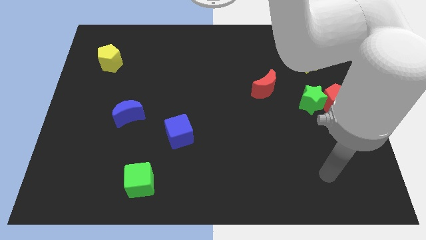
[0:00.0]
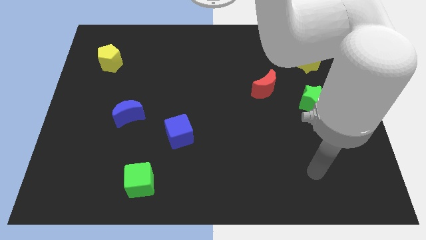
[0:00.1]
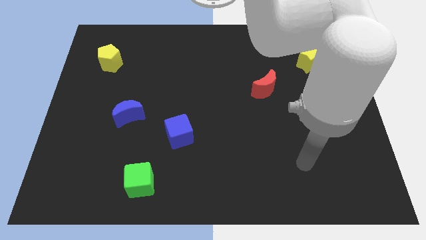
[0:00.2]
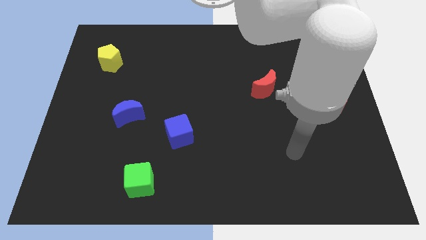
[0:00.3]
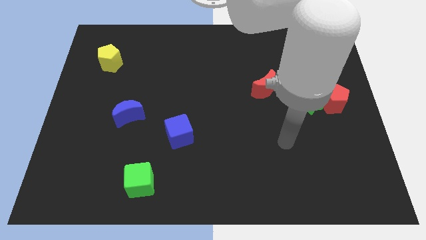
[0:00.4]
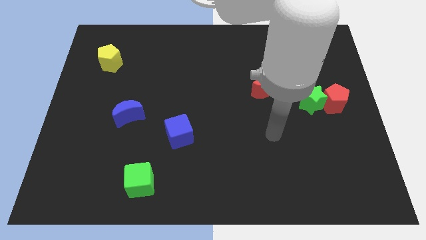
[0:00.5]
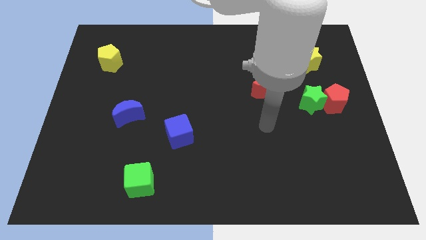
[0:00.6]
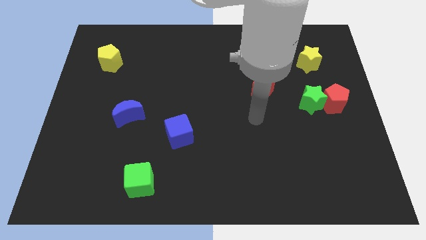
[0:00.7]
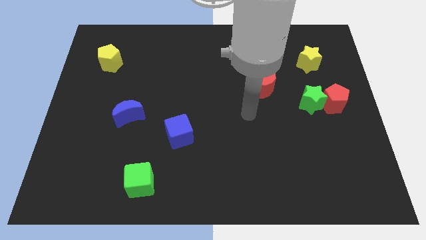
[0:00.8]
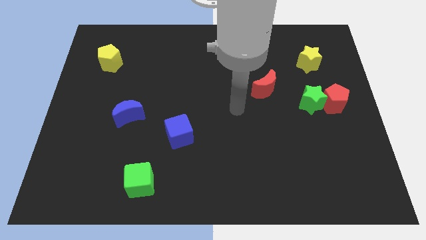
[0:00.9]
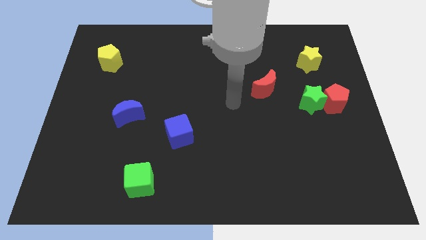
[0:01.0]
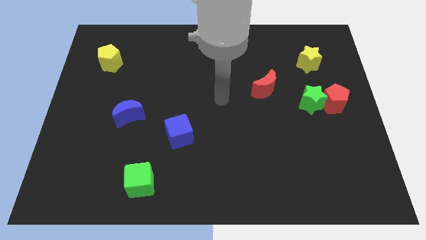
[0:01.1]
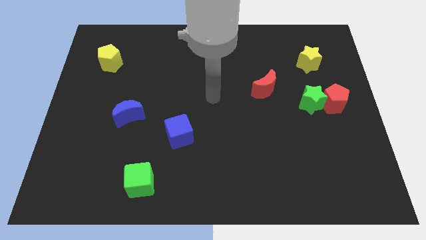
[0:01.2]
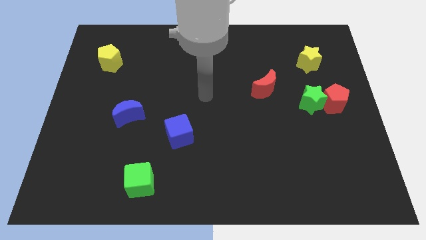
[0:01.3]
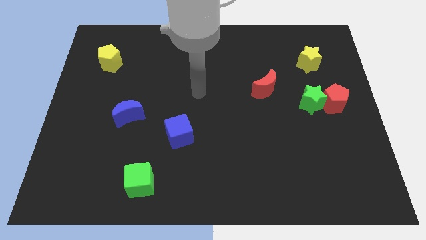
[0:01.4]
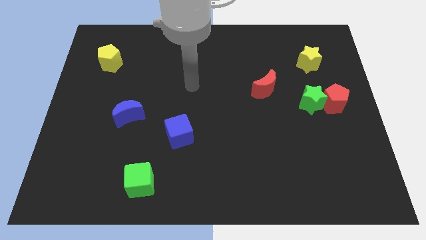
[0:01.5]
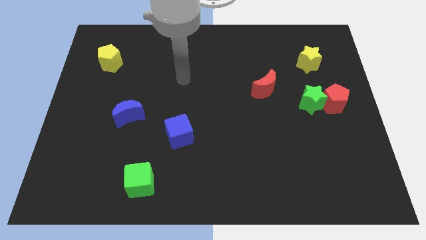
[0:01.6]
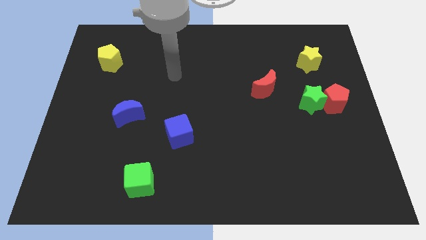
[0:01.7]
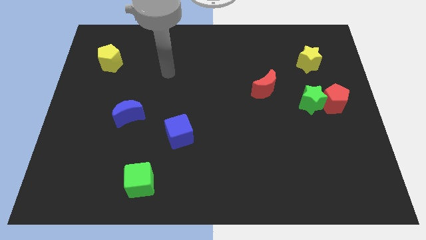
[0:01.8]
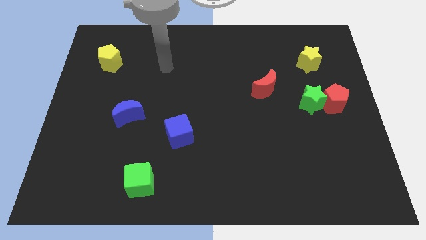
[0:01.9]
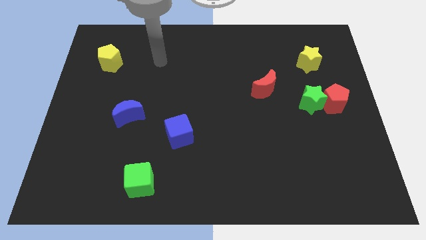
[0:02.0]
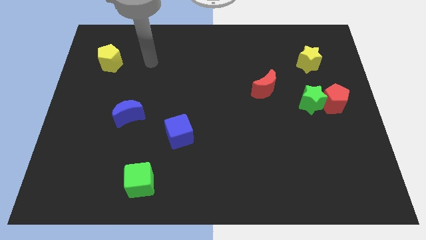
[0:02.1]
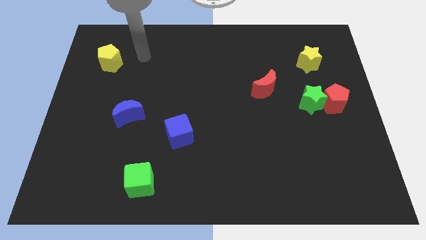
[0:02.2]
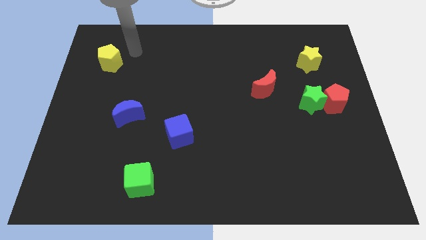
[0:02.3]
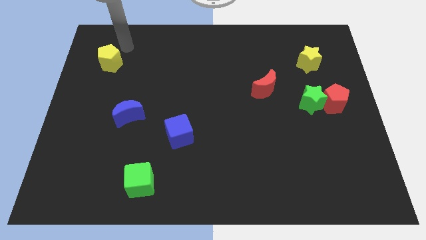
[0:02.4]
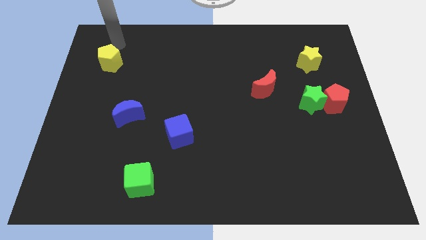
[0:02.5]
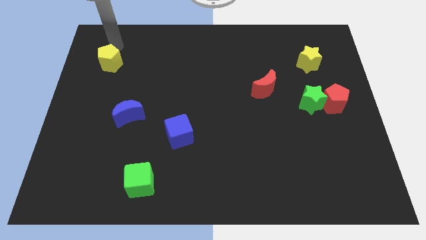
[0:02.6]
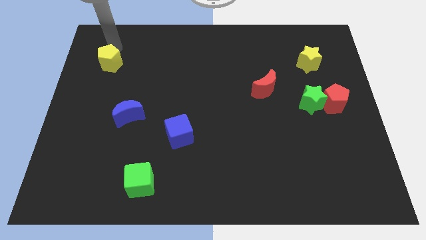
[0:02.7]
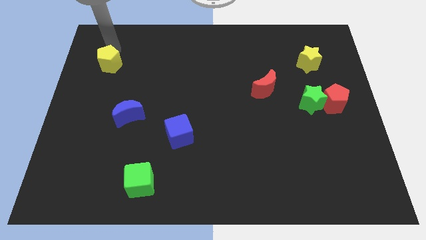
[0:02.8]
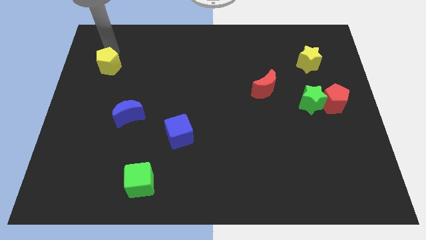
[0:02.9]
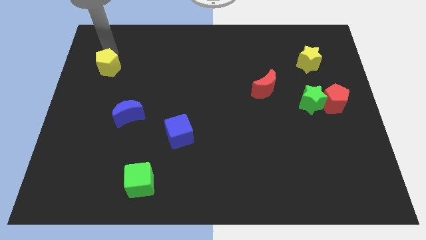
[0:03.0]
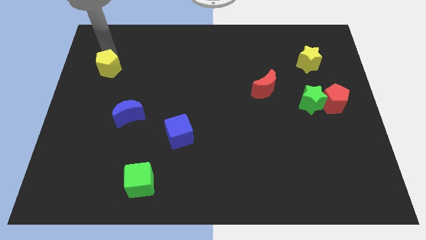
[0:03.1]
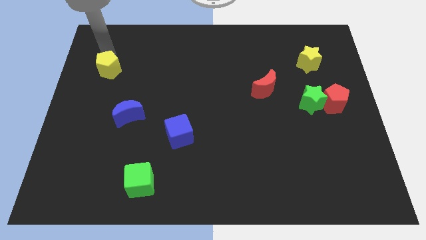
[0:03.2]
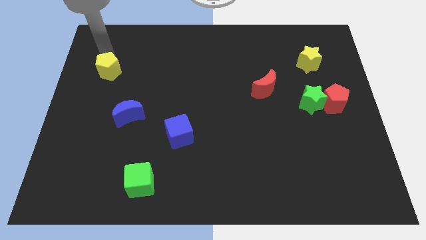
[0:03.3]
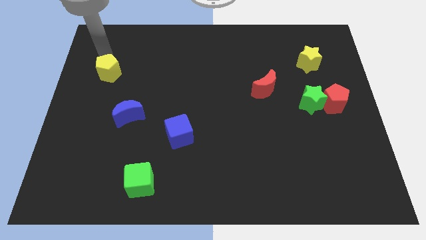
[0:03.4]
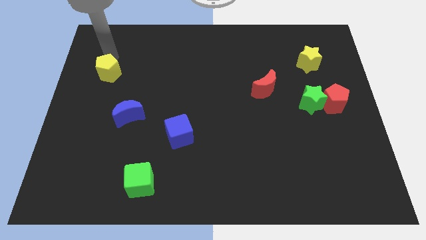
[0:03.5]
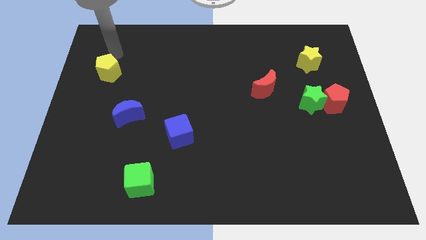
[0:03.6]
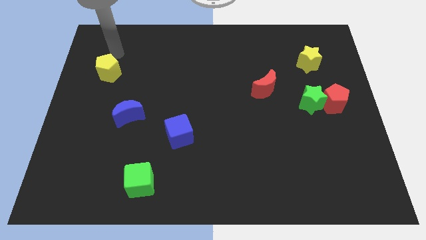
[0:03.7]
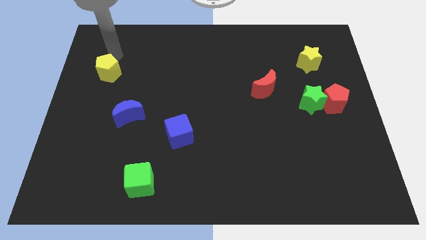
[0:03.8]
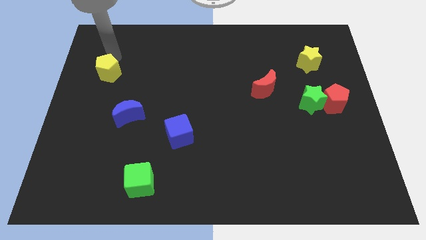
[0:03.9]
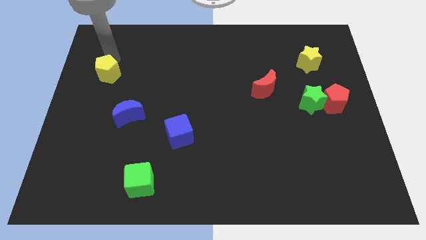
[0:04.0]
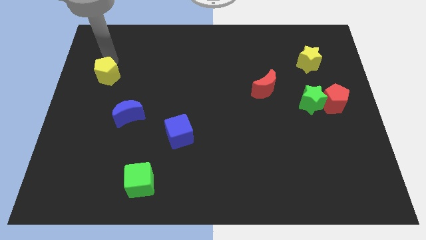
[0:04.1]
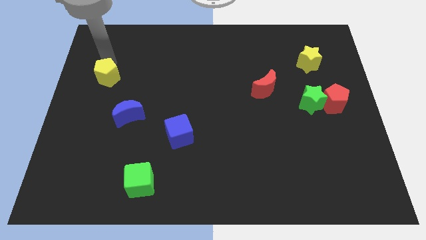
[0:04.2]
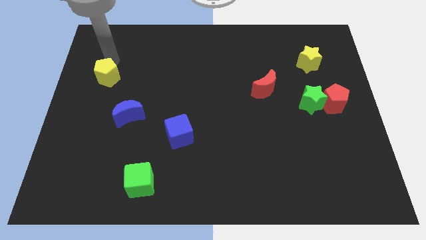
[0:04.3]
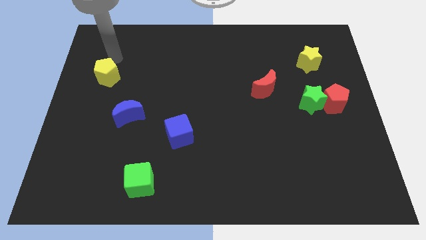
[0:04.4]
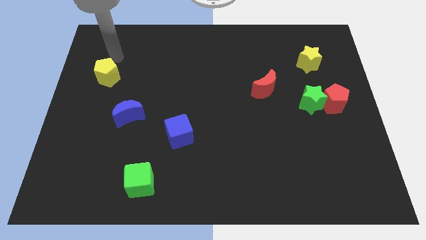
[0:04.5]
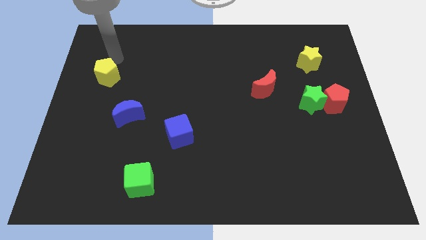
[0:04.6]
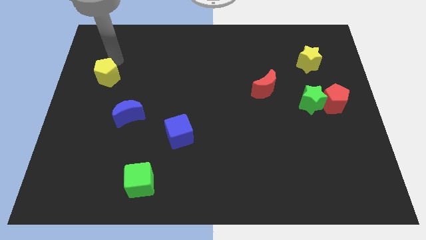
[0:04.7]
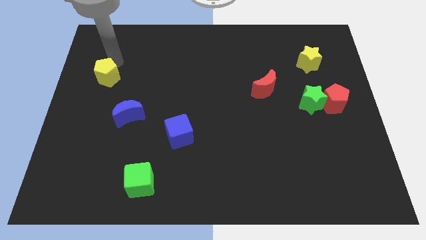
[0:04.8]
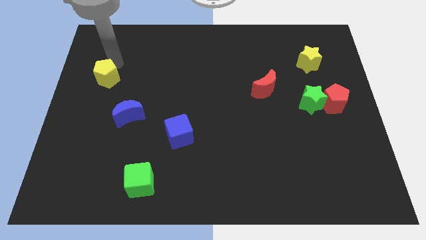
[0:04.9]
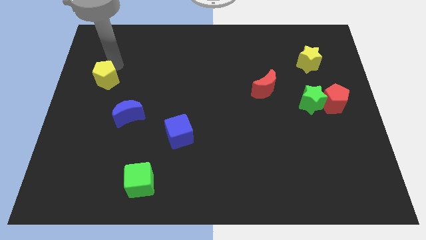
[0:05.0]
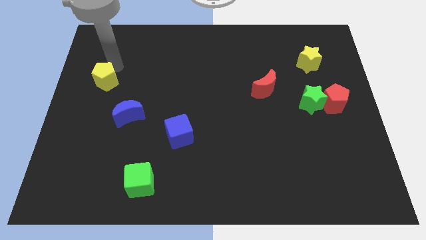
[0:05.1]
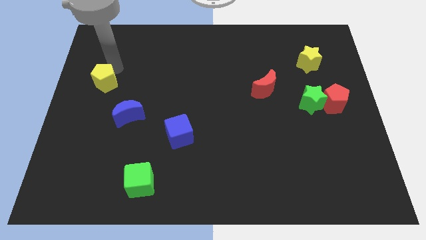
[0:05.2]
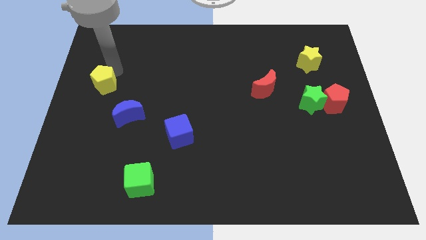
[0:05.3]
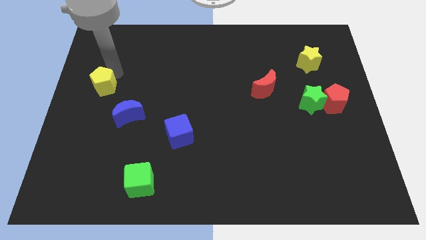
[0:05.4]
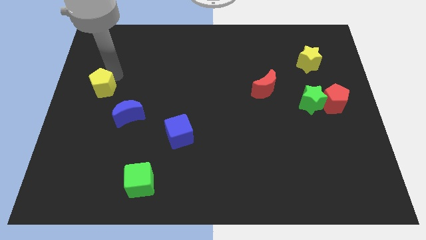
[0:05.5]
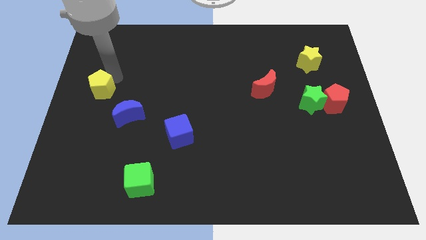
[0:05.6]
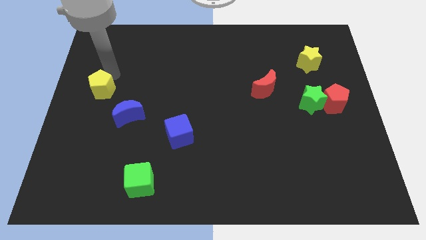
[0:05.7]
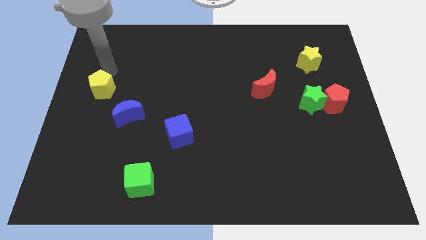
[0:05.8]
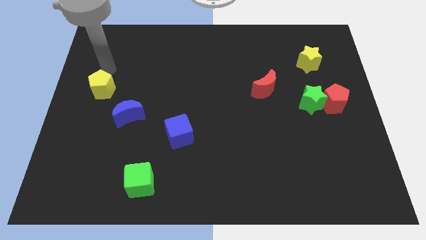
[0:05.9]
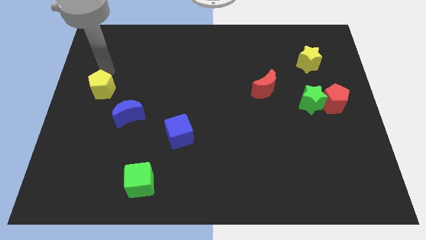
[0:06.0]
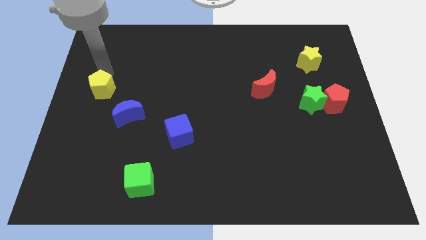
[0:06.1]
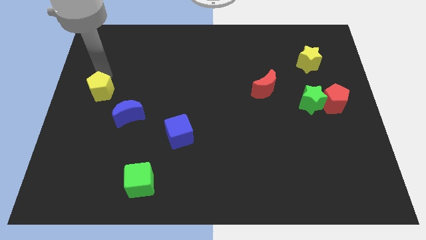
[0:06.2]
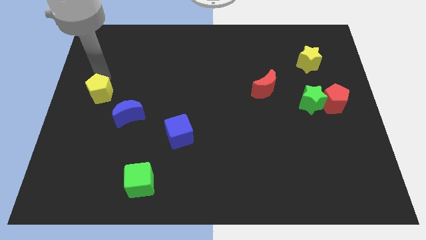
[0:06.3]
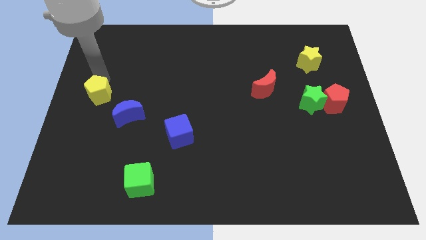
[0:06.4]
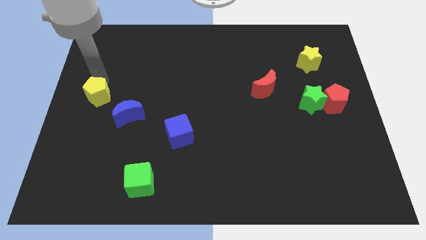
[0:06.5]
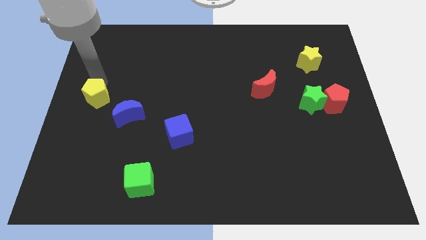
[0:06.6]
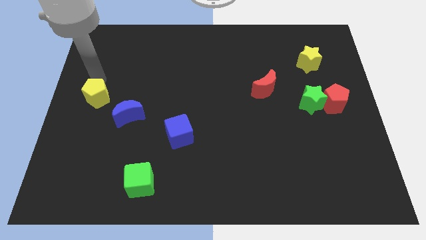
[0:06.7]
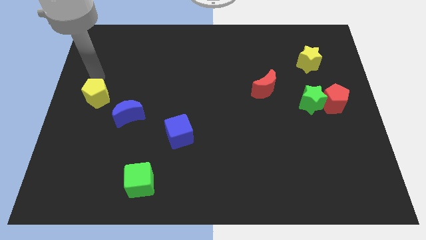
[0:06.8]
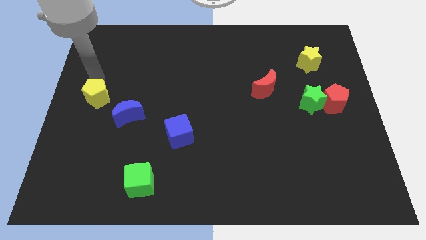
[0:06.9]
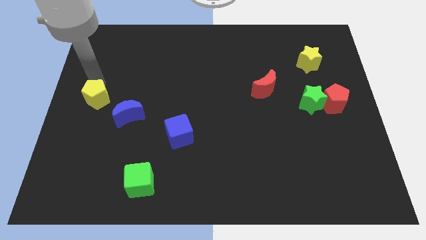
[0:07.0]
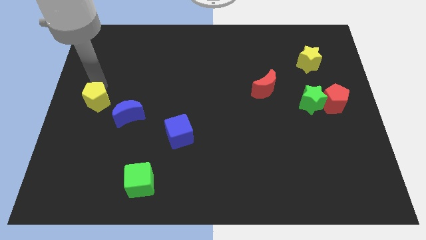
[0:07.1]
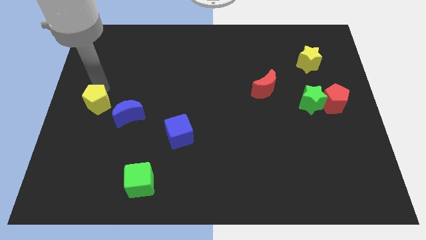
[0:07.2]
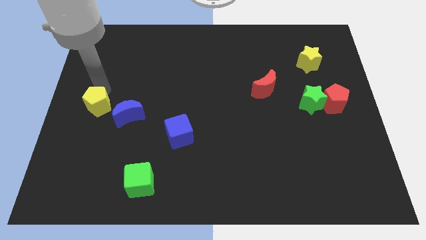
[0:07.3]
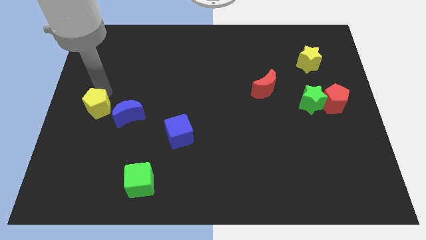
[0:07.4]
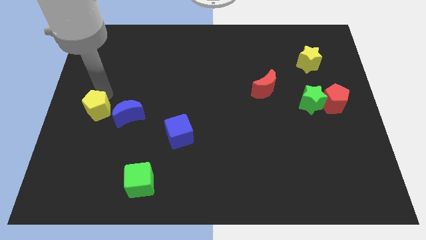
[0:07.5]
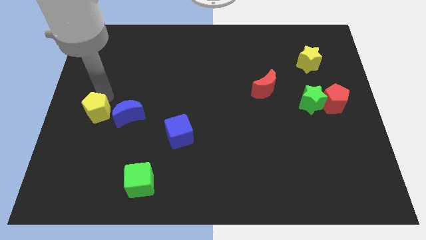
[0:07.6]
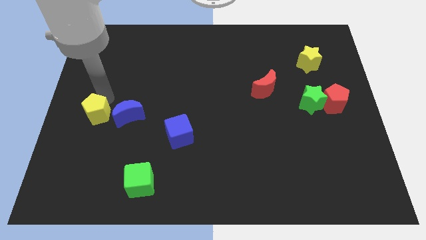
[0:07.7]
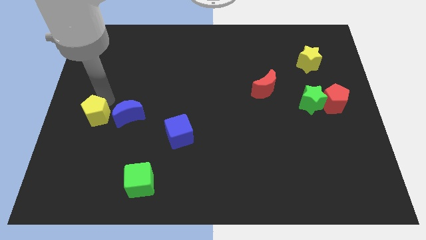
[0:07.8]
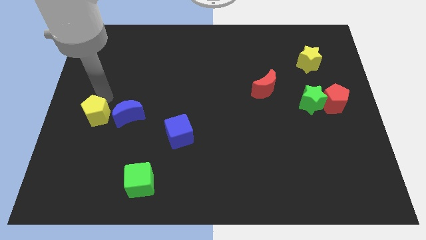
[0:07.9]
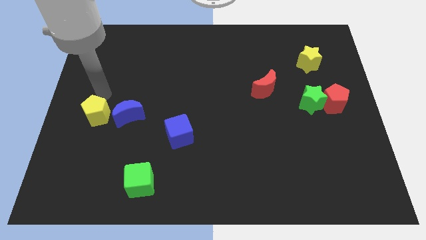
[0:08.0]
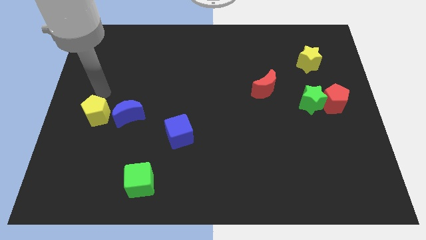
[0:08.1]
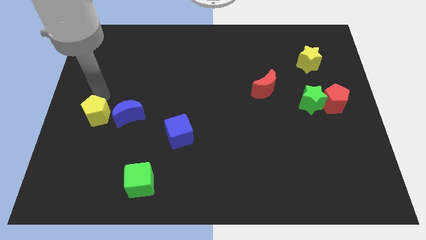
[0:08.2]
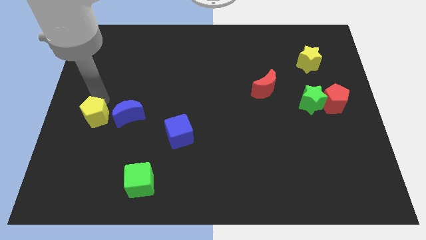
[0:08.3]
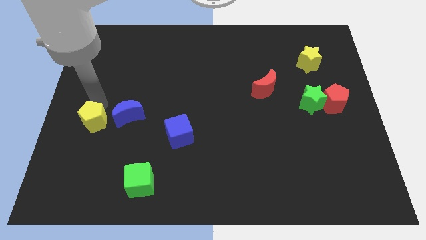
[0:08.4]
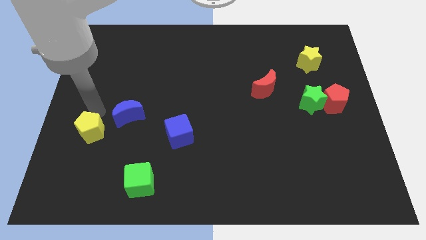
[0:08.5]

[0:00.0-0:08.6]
slide the yellow pentagon down
